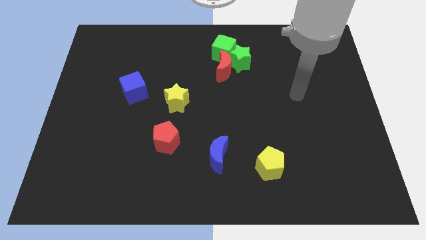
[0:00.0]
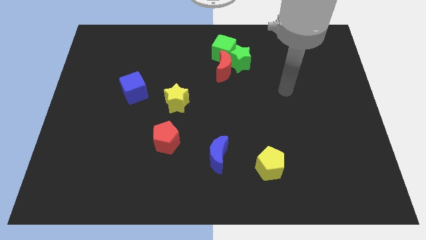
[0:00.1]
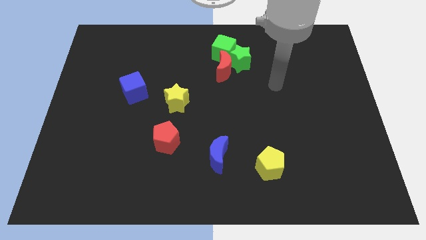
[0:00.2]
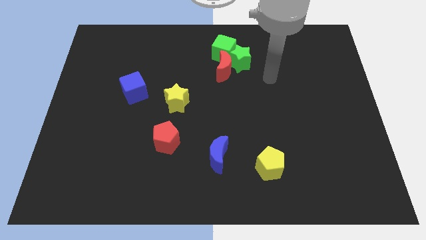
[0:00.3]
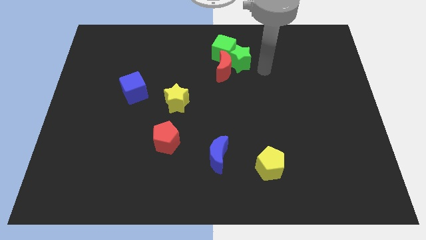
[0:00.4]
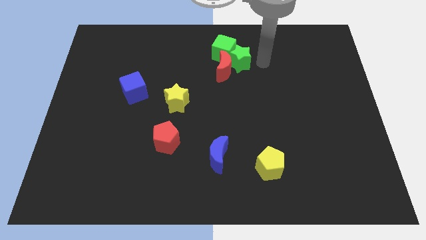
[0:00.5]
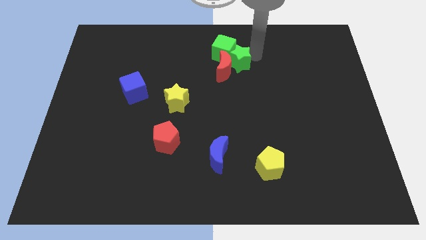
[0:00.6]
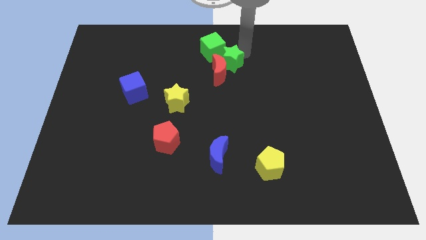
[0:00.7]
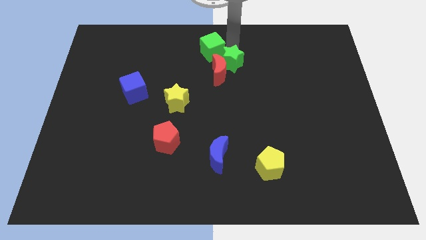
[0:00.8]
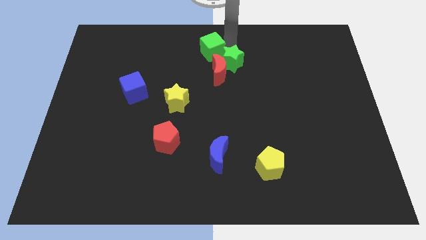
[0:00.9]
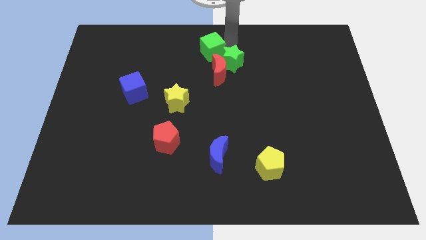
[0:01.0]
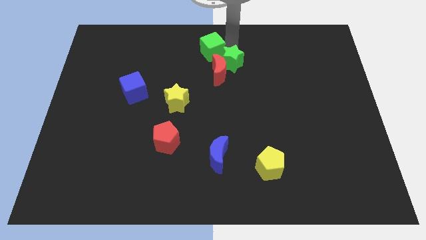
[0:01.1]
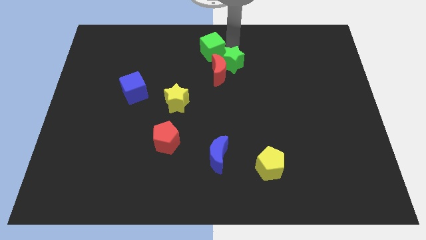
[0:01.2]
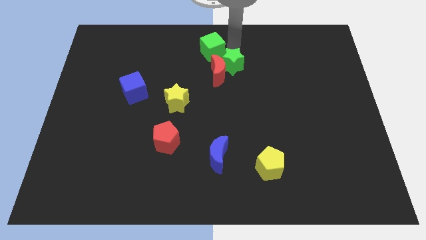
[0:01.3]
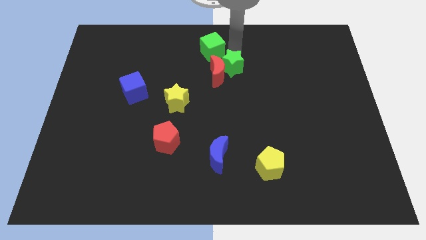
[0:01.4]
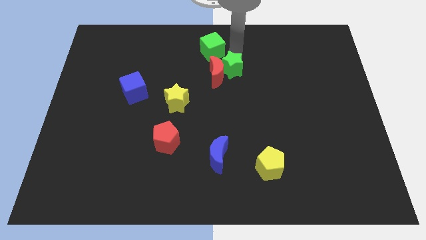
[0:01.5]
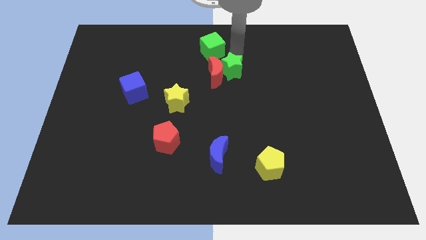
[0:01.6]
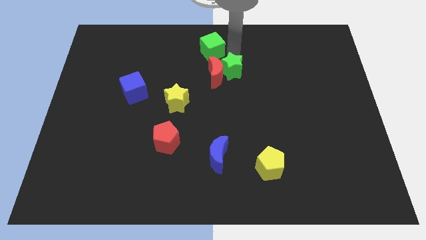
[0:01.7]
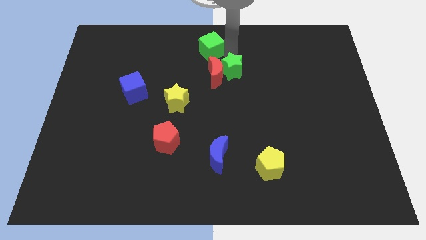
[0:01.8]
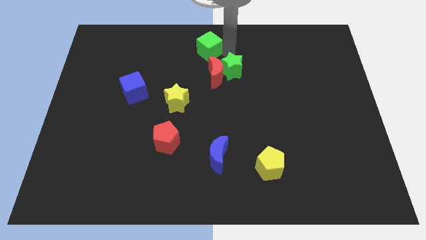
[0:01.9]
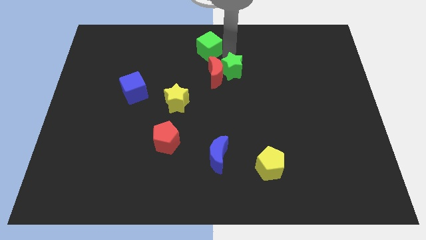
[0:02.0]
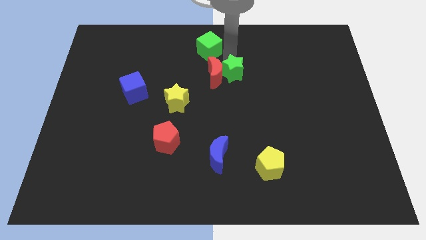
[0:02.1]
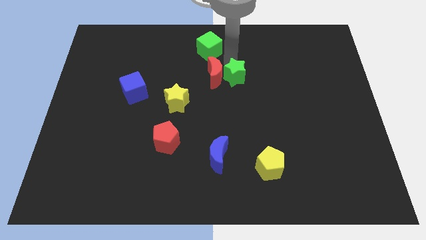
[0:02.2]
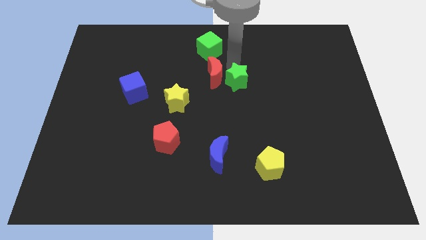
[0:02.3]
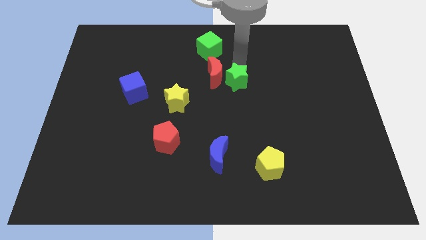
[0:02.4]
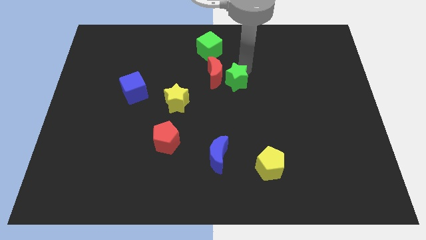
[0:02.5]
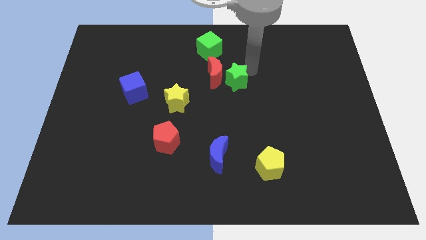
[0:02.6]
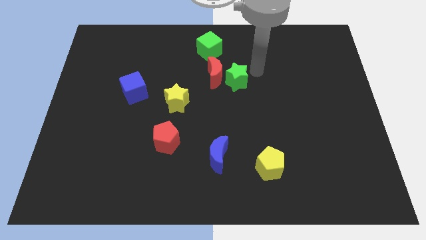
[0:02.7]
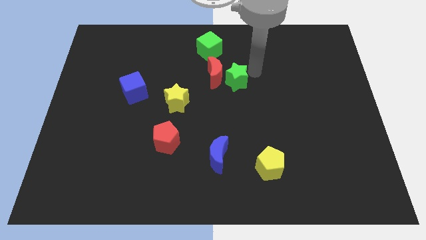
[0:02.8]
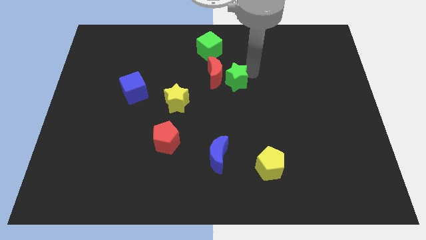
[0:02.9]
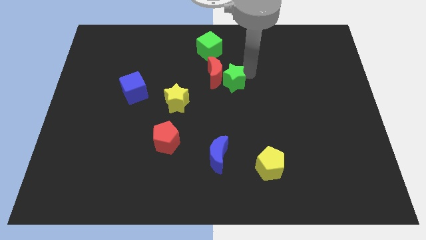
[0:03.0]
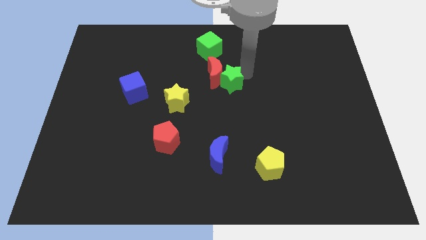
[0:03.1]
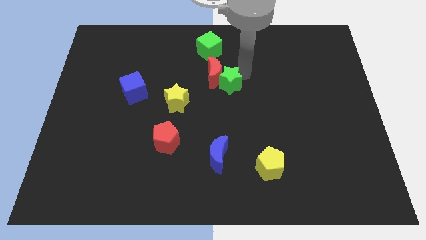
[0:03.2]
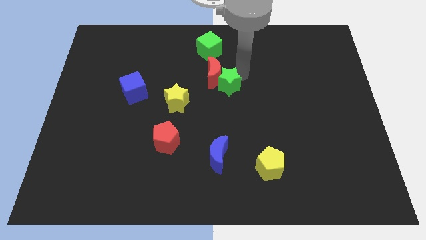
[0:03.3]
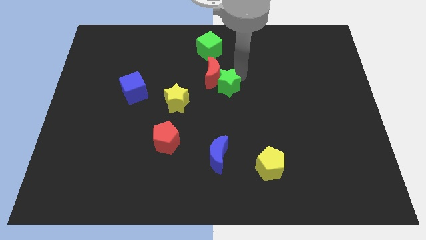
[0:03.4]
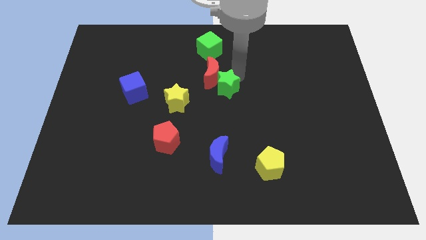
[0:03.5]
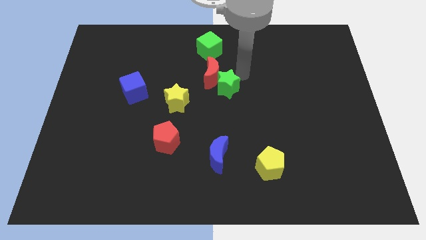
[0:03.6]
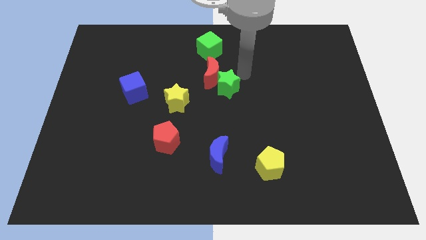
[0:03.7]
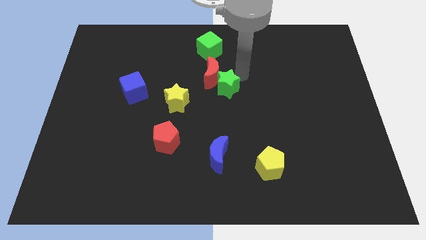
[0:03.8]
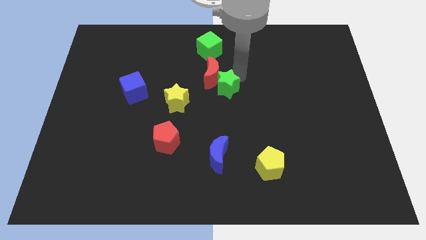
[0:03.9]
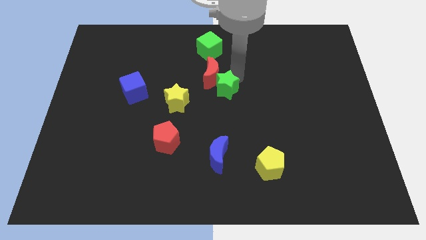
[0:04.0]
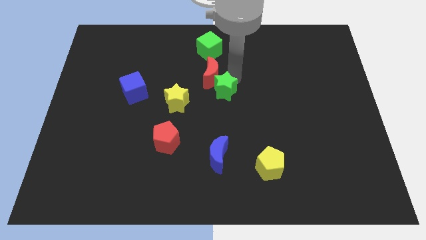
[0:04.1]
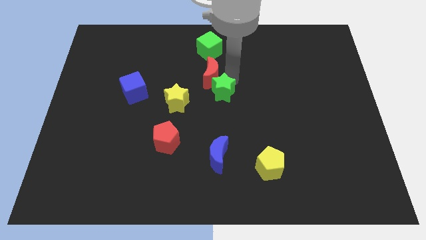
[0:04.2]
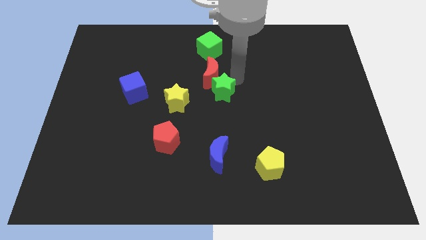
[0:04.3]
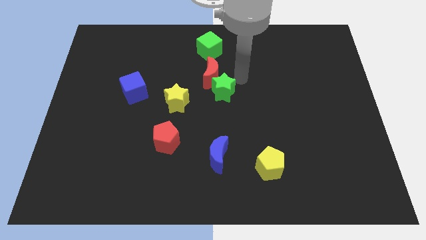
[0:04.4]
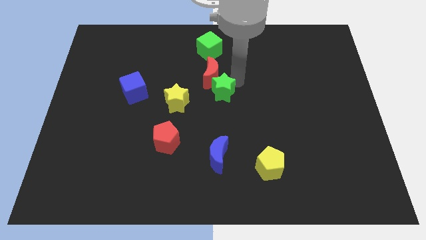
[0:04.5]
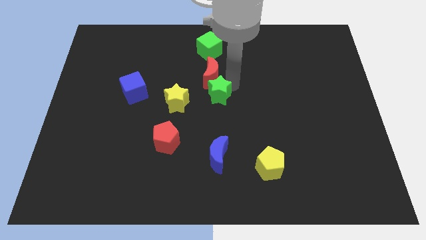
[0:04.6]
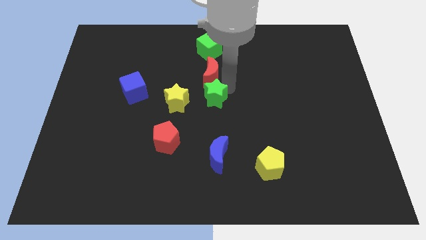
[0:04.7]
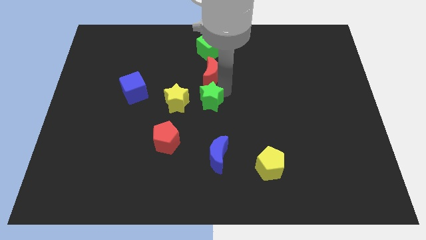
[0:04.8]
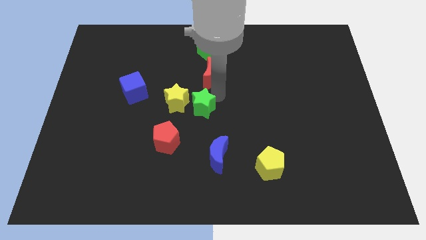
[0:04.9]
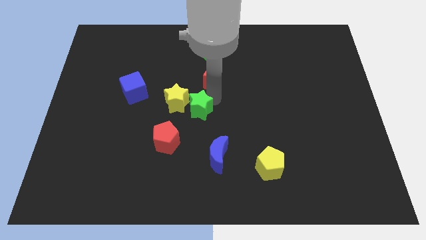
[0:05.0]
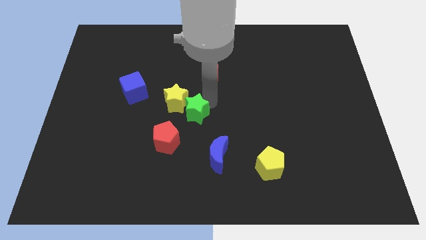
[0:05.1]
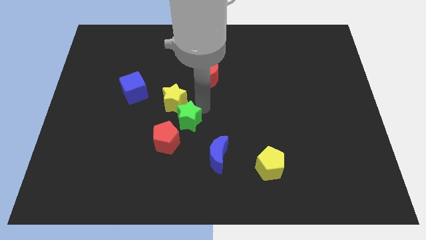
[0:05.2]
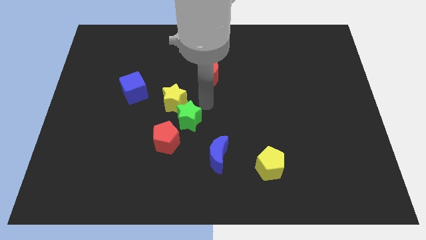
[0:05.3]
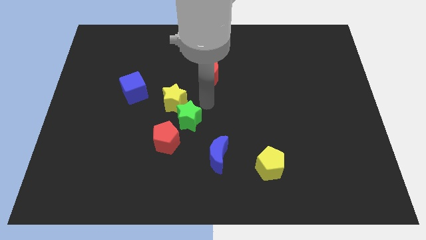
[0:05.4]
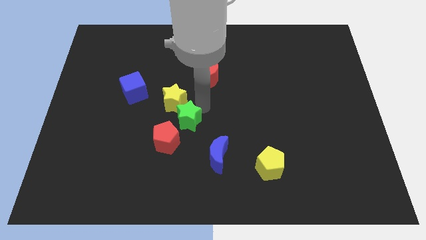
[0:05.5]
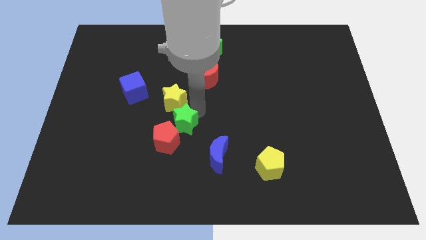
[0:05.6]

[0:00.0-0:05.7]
push the green star to the red pentagon
